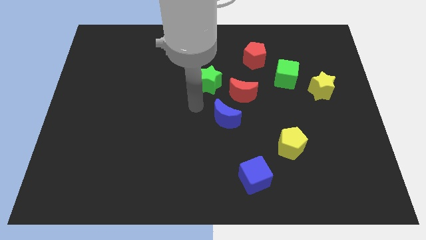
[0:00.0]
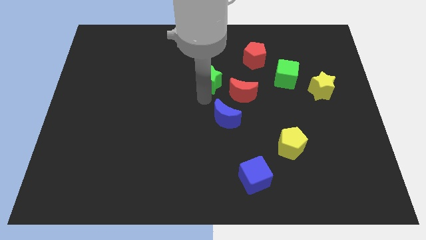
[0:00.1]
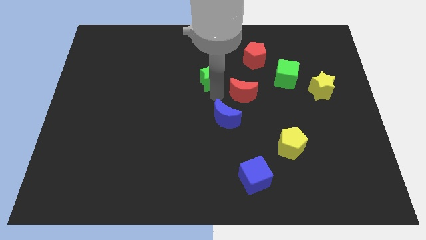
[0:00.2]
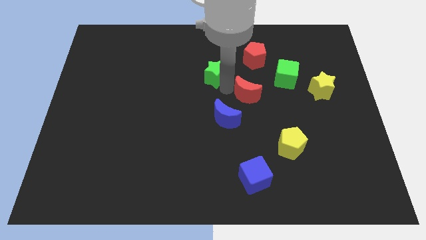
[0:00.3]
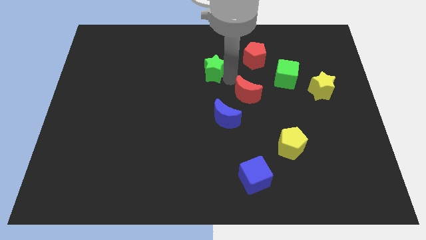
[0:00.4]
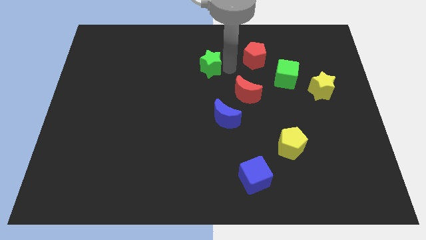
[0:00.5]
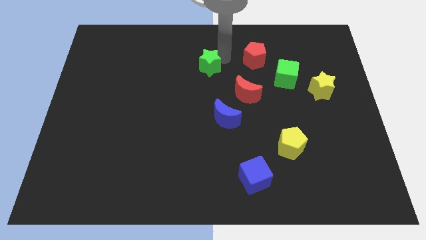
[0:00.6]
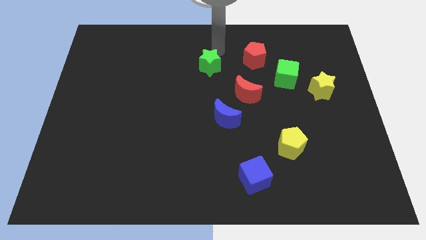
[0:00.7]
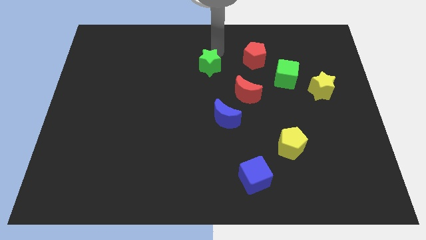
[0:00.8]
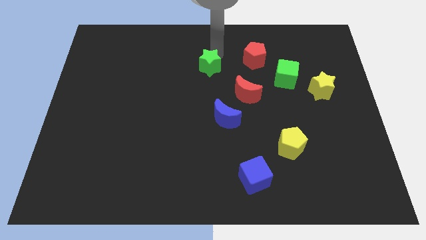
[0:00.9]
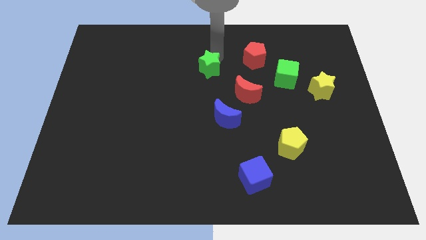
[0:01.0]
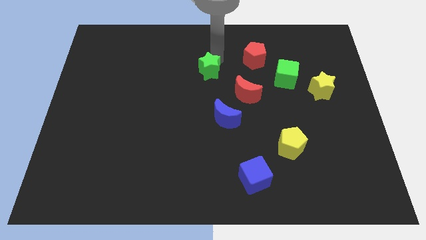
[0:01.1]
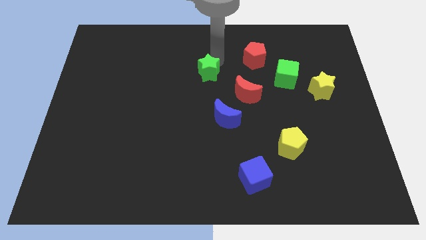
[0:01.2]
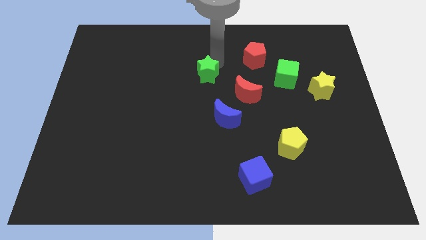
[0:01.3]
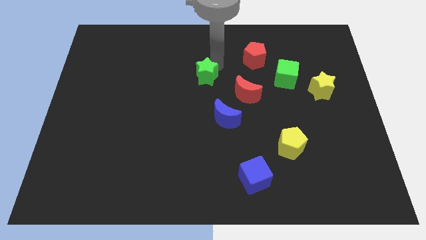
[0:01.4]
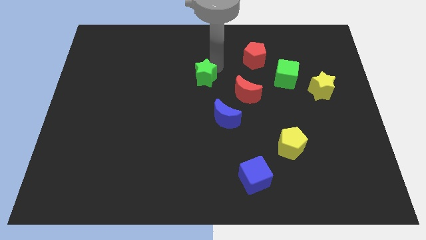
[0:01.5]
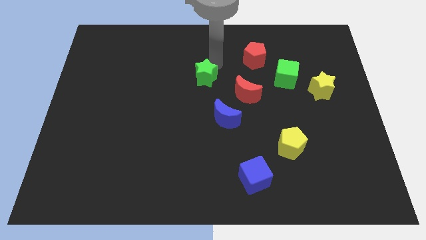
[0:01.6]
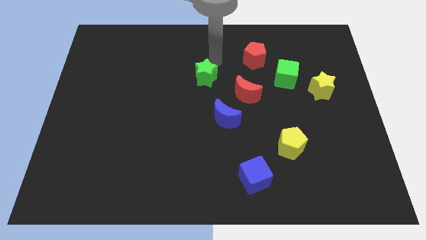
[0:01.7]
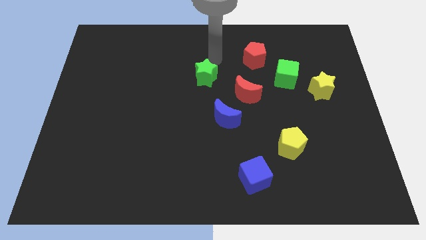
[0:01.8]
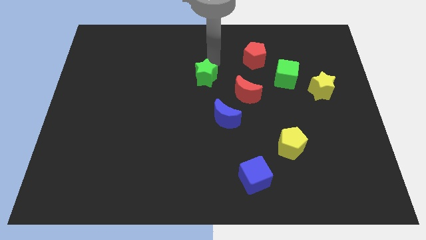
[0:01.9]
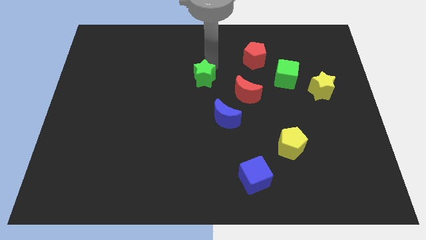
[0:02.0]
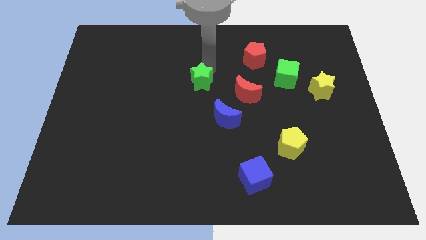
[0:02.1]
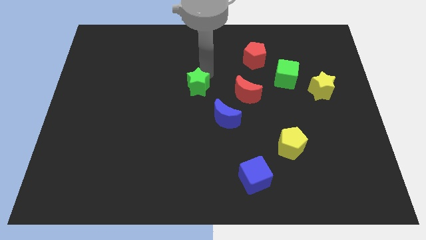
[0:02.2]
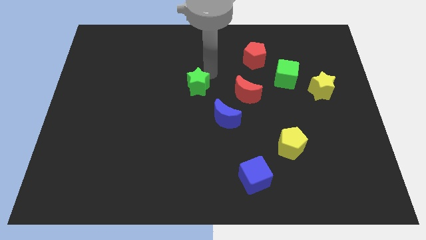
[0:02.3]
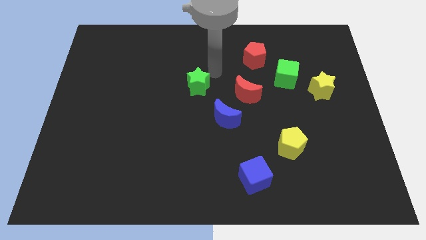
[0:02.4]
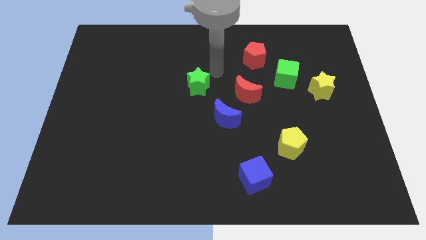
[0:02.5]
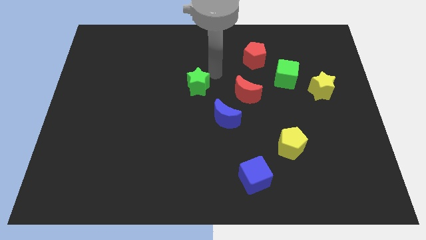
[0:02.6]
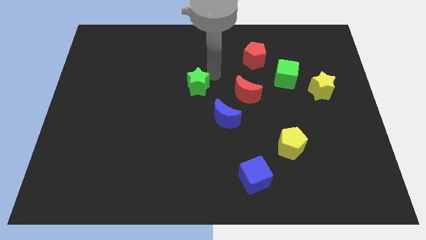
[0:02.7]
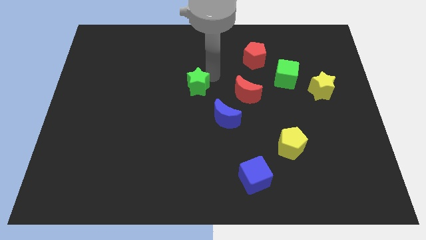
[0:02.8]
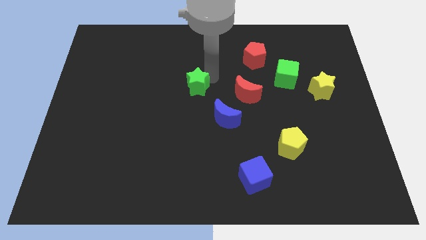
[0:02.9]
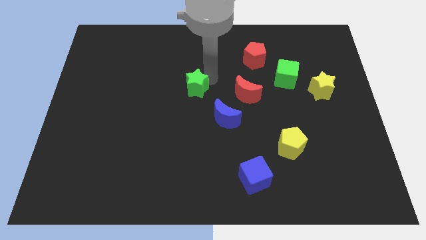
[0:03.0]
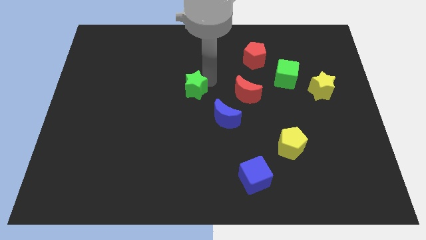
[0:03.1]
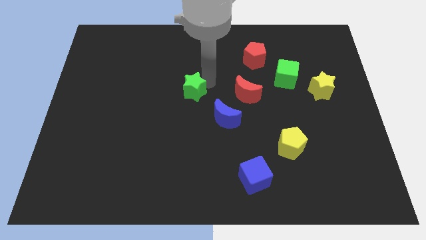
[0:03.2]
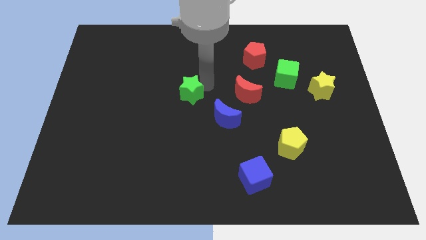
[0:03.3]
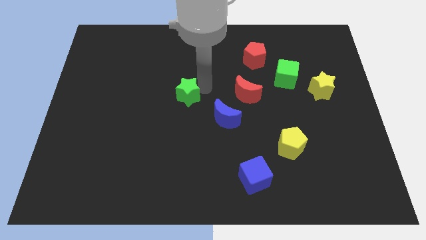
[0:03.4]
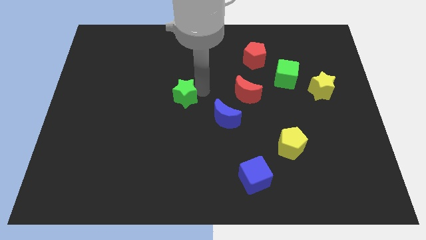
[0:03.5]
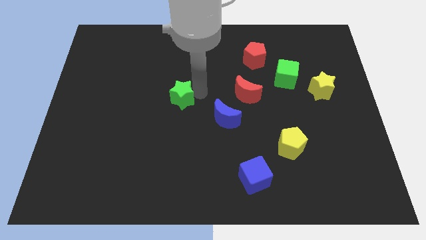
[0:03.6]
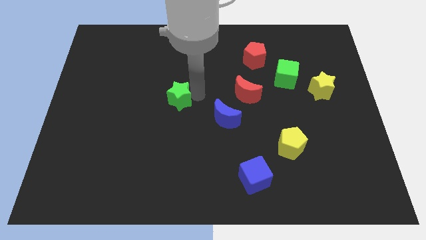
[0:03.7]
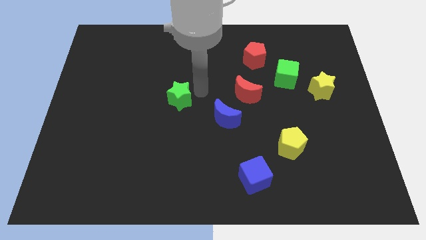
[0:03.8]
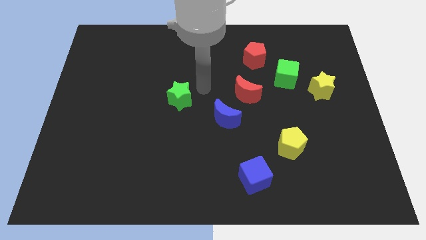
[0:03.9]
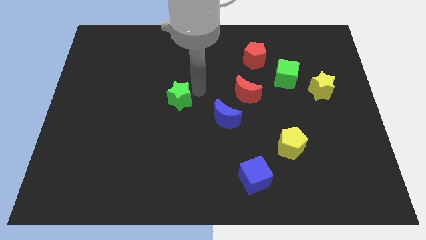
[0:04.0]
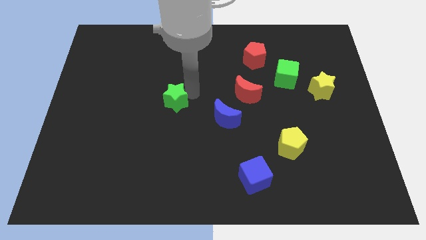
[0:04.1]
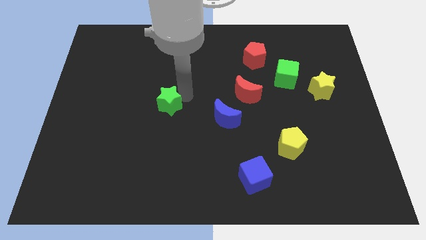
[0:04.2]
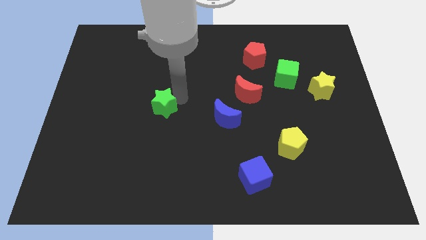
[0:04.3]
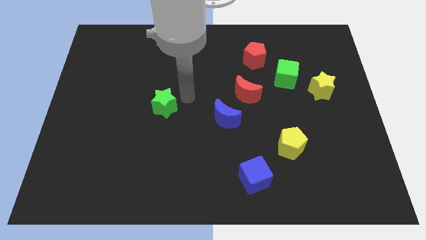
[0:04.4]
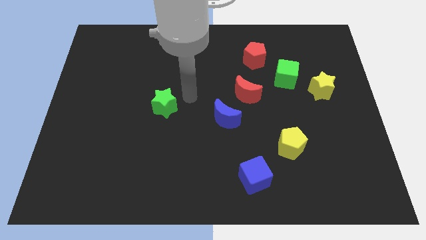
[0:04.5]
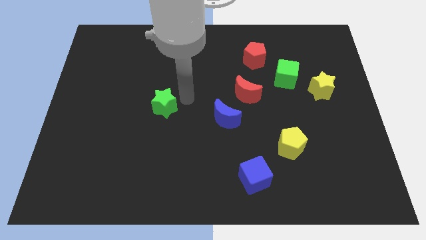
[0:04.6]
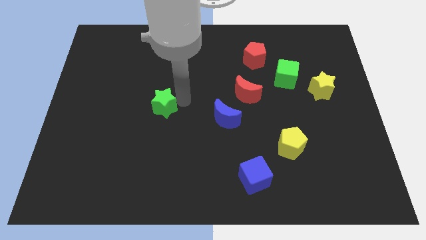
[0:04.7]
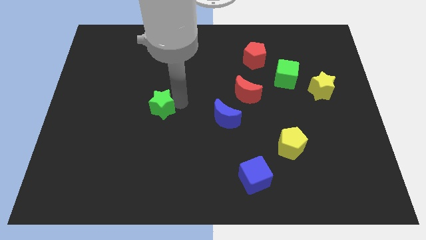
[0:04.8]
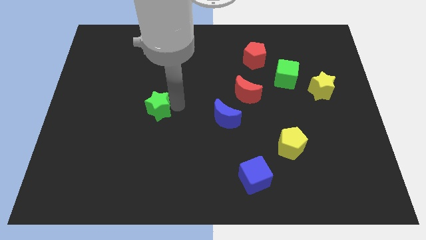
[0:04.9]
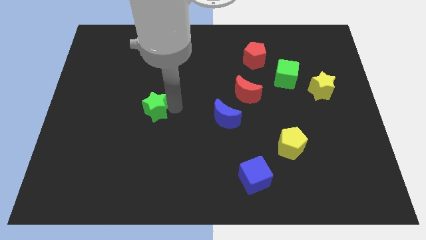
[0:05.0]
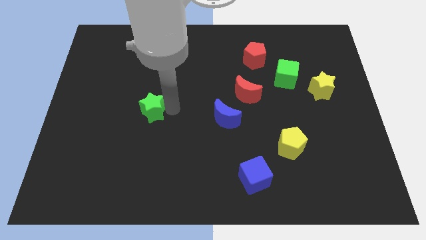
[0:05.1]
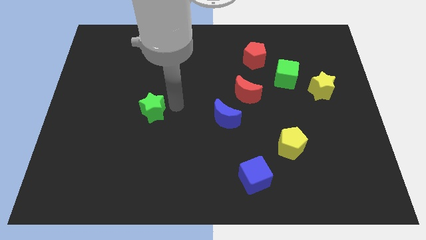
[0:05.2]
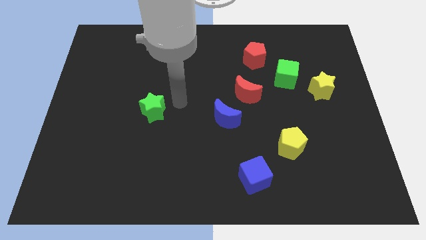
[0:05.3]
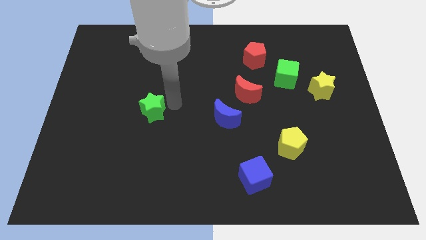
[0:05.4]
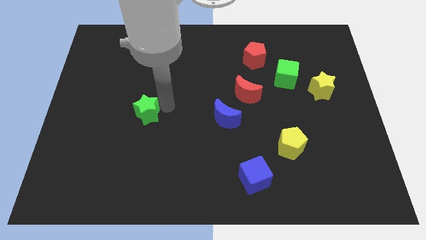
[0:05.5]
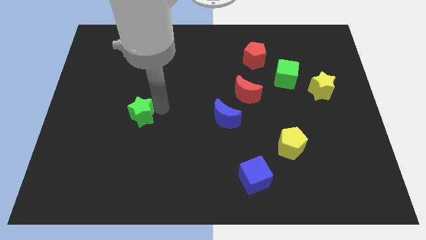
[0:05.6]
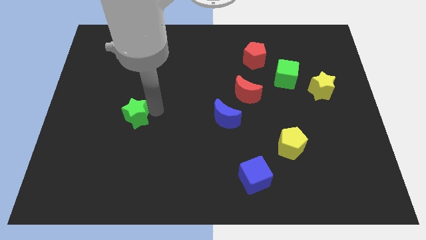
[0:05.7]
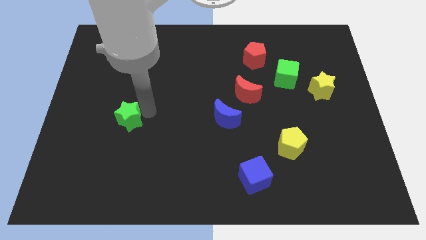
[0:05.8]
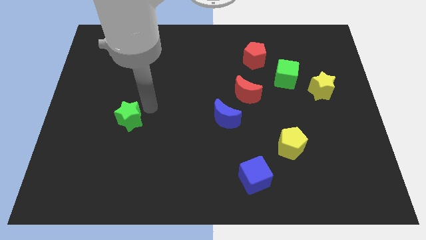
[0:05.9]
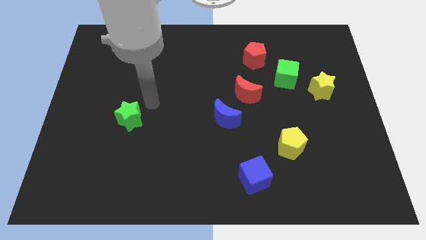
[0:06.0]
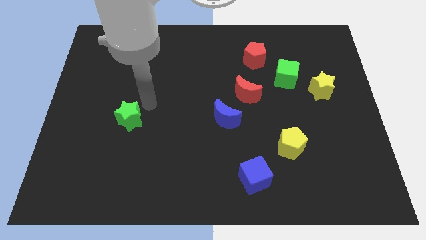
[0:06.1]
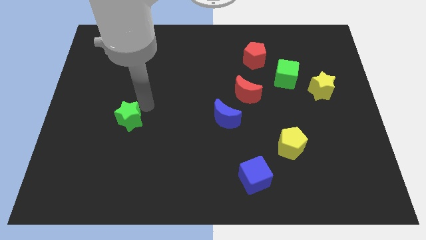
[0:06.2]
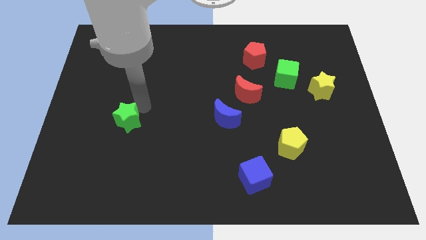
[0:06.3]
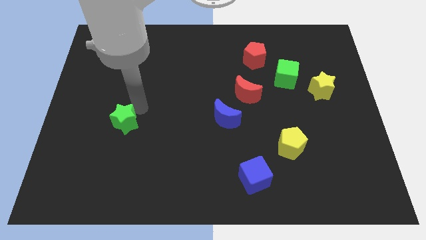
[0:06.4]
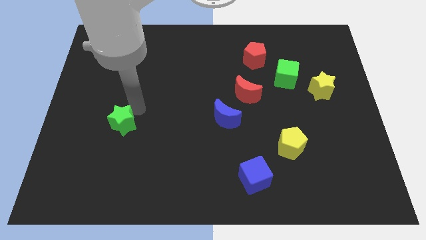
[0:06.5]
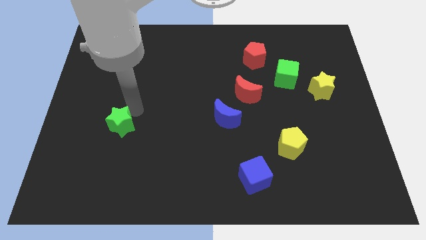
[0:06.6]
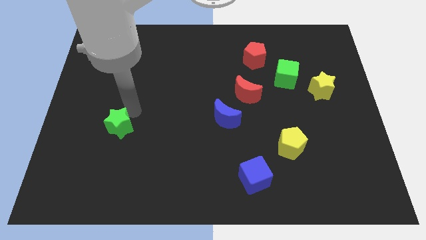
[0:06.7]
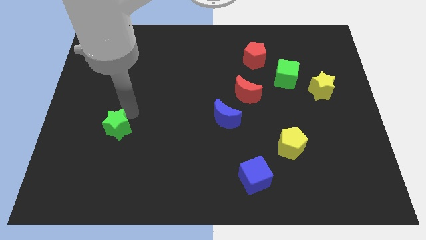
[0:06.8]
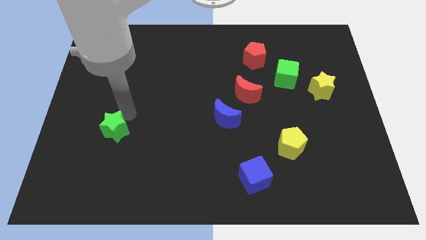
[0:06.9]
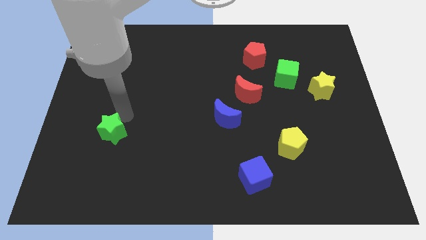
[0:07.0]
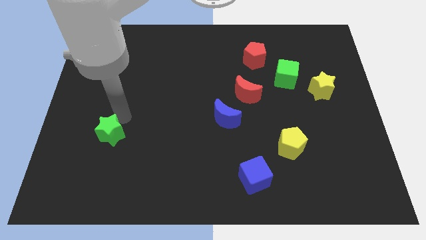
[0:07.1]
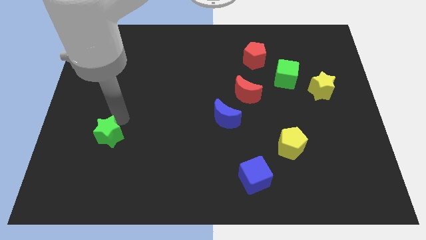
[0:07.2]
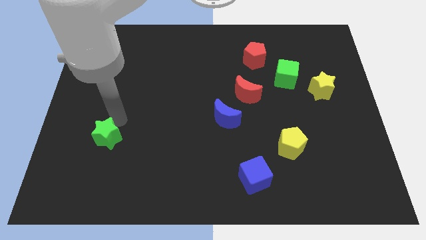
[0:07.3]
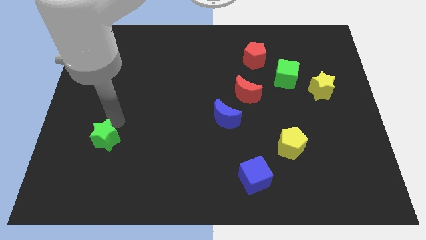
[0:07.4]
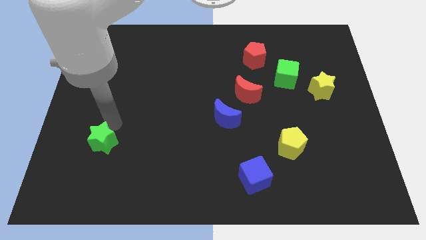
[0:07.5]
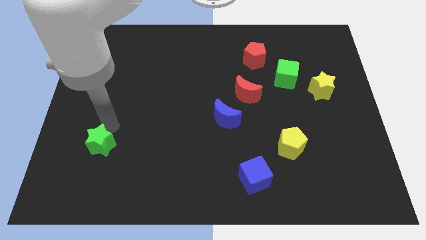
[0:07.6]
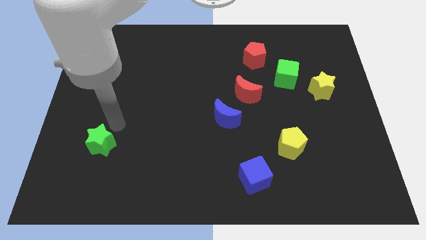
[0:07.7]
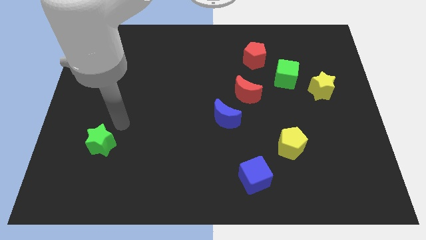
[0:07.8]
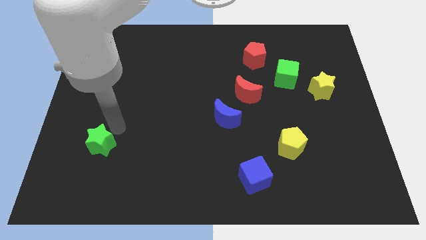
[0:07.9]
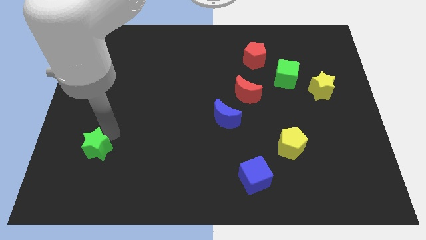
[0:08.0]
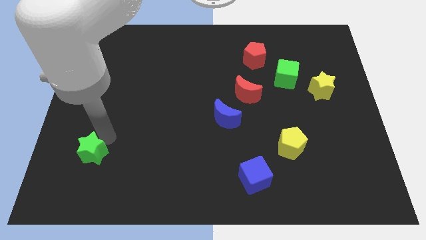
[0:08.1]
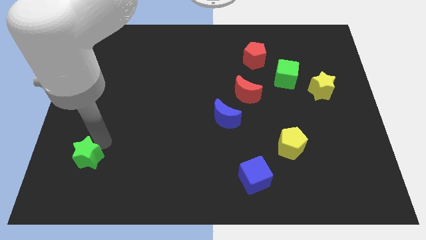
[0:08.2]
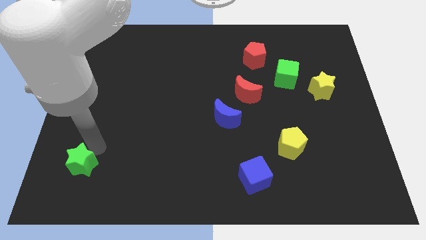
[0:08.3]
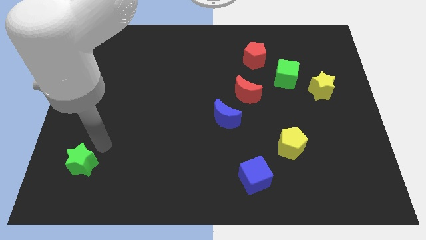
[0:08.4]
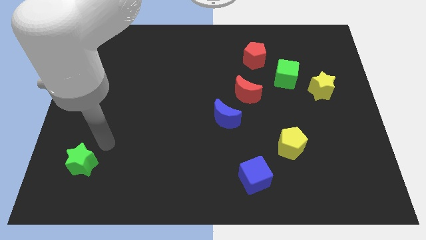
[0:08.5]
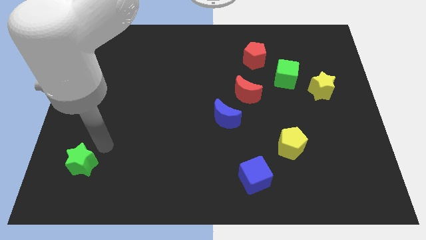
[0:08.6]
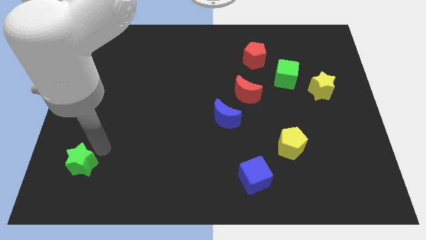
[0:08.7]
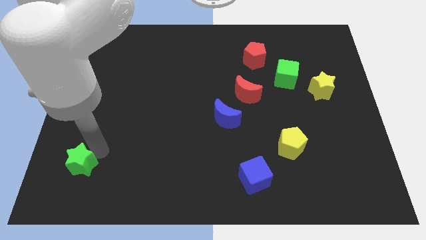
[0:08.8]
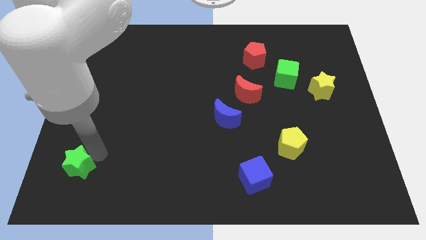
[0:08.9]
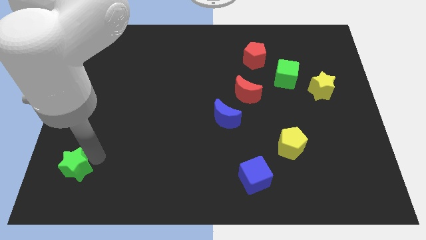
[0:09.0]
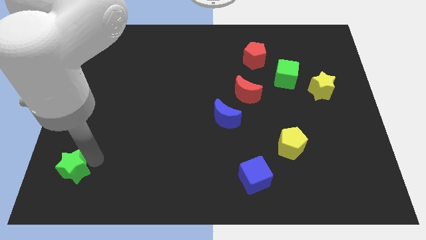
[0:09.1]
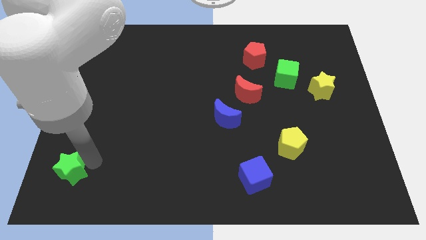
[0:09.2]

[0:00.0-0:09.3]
slide the green star to the bottom left
